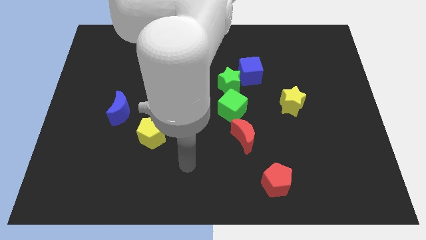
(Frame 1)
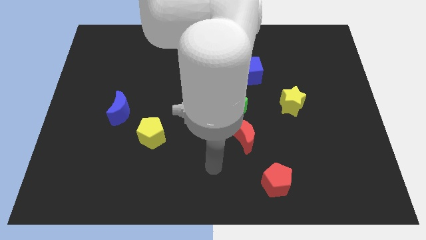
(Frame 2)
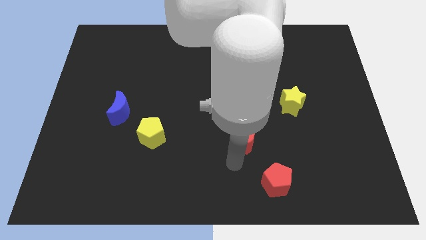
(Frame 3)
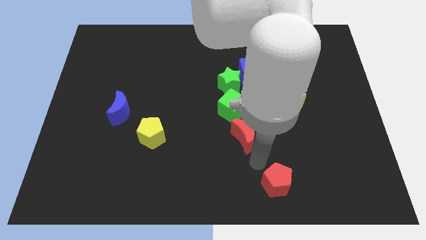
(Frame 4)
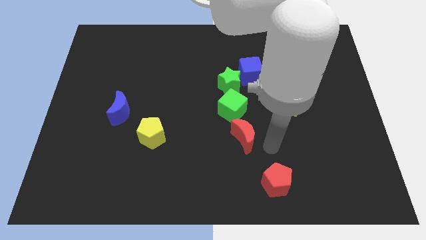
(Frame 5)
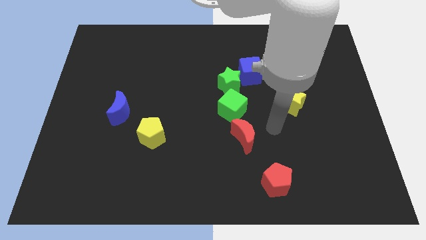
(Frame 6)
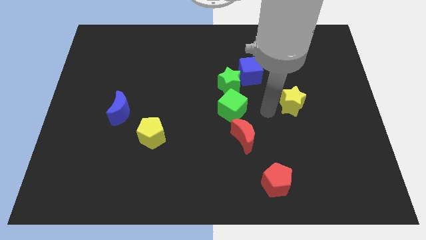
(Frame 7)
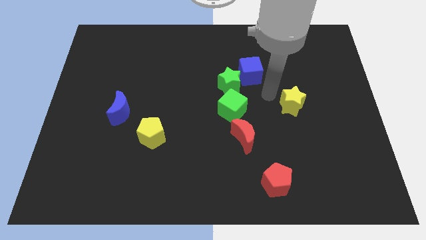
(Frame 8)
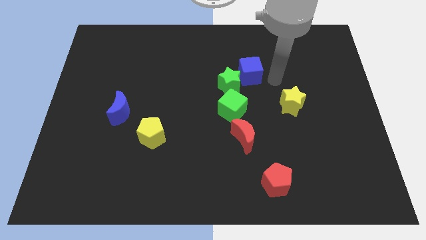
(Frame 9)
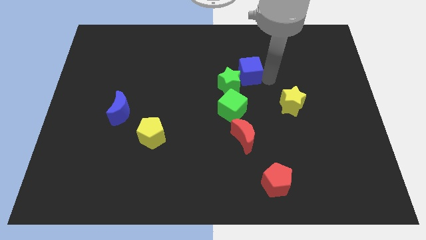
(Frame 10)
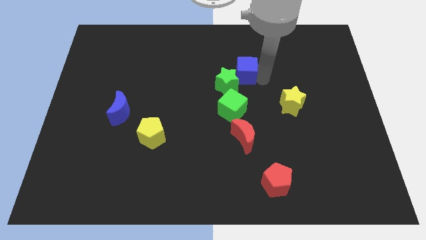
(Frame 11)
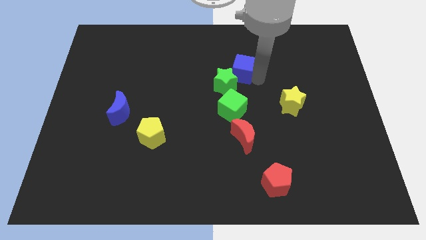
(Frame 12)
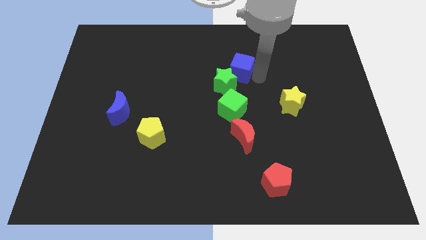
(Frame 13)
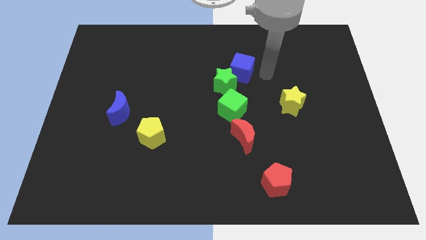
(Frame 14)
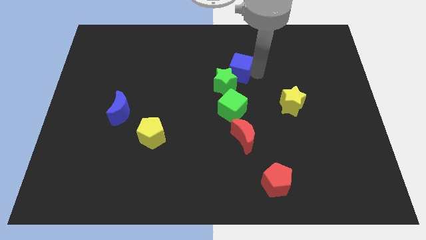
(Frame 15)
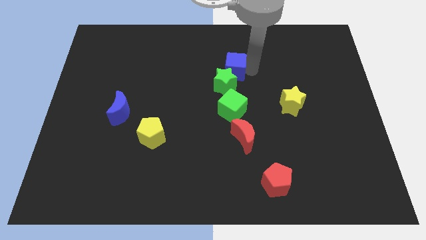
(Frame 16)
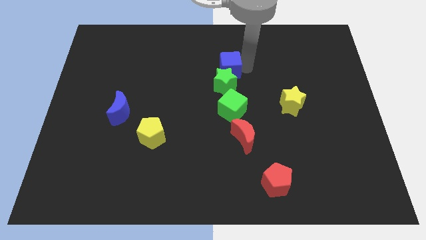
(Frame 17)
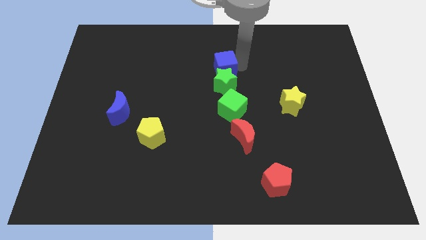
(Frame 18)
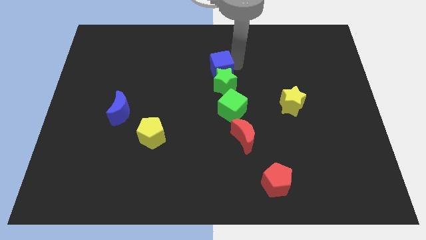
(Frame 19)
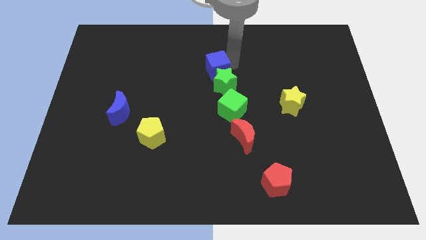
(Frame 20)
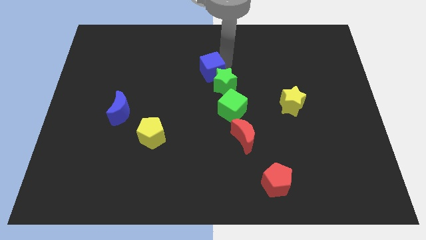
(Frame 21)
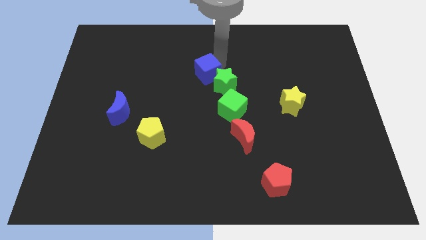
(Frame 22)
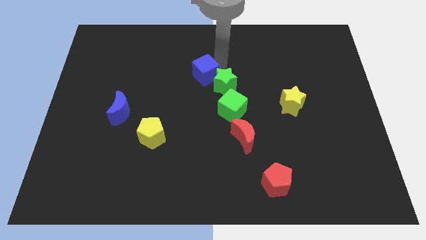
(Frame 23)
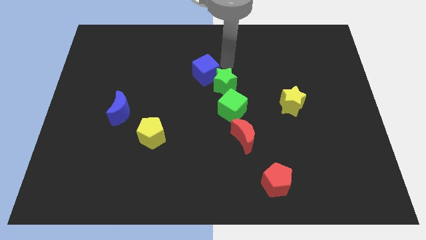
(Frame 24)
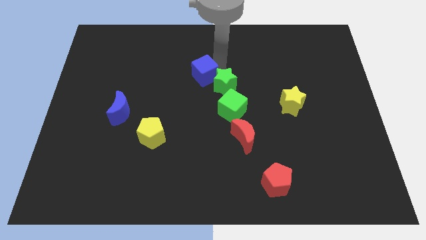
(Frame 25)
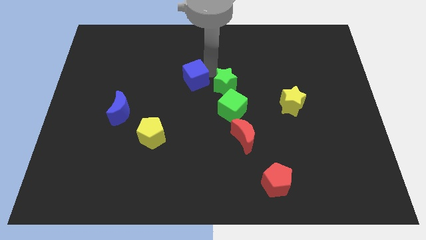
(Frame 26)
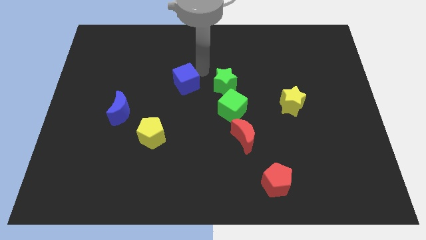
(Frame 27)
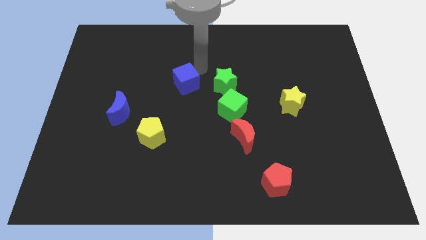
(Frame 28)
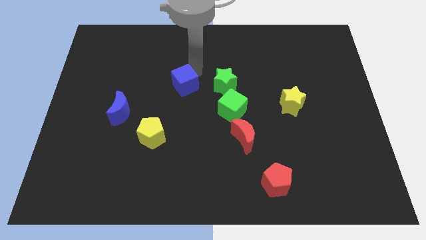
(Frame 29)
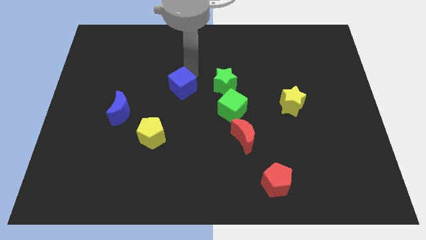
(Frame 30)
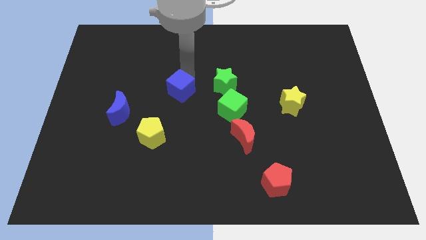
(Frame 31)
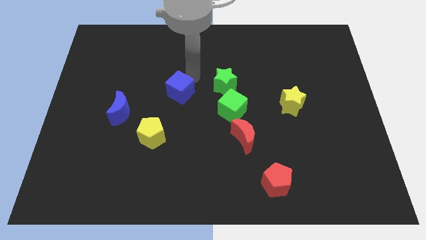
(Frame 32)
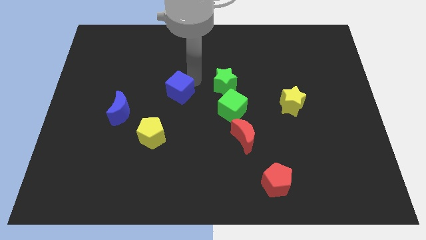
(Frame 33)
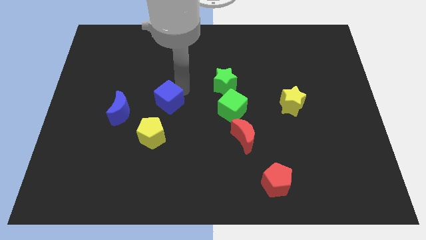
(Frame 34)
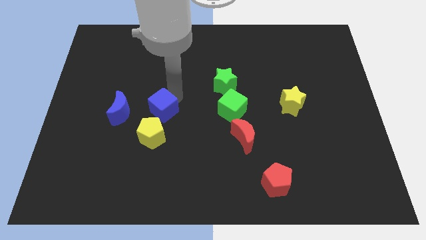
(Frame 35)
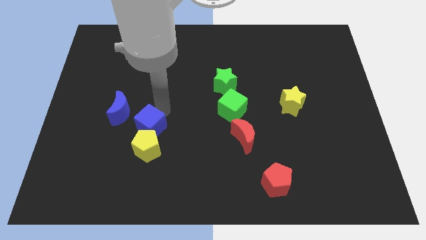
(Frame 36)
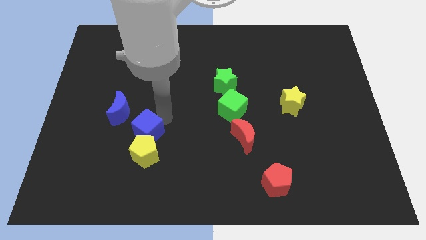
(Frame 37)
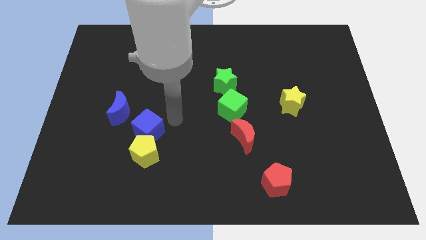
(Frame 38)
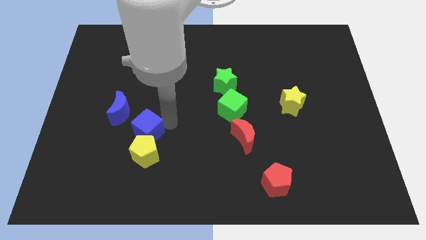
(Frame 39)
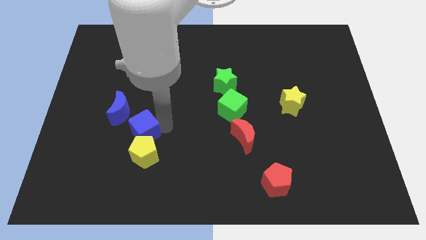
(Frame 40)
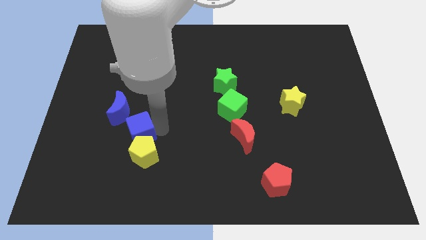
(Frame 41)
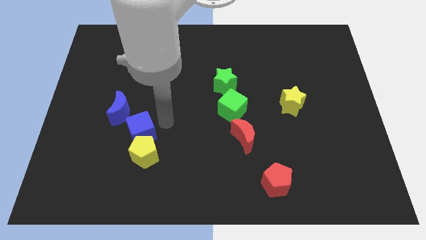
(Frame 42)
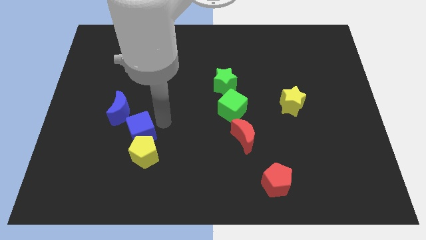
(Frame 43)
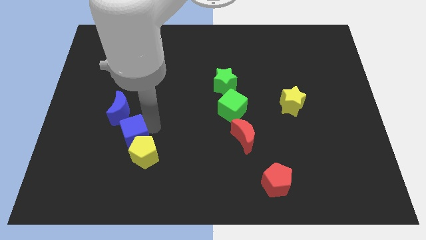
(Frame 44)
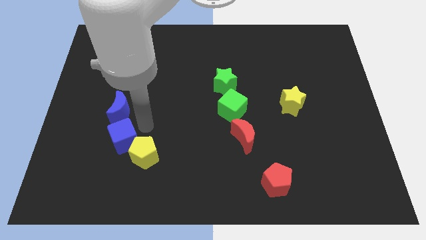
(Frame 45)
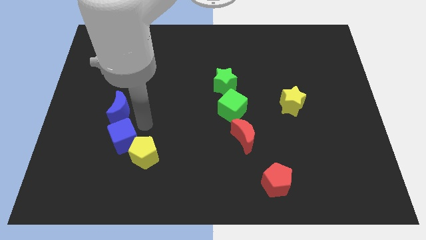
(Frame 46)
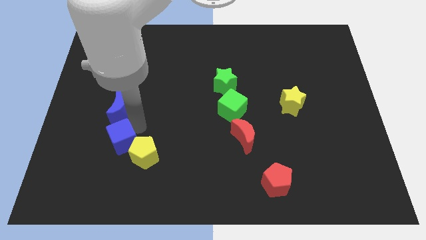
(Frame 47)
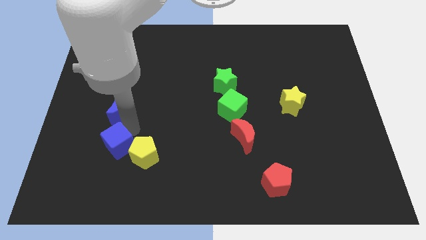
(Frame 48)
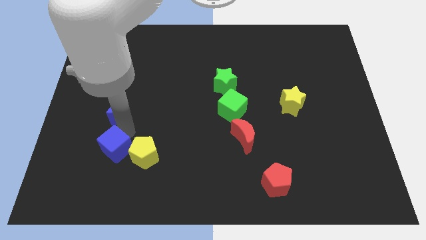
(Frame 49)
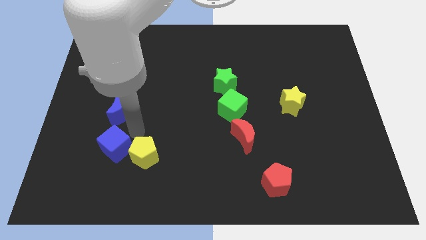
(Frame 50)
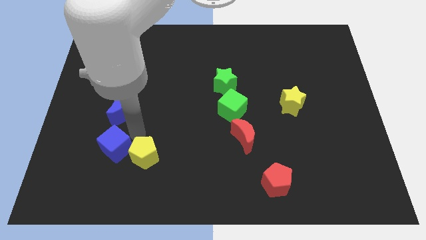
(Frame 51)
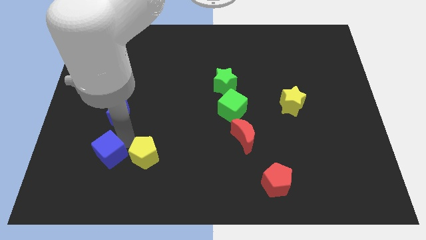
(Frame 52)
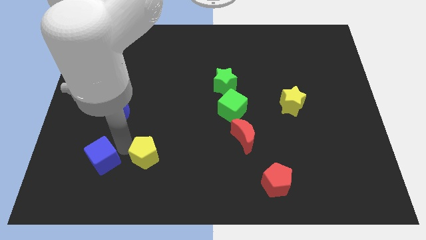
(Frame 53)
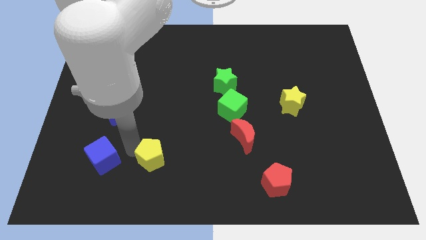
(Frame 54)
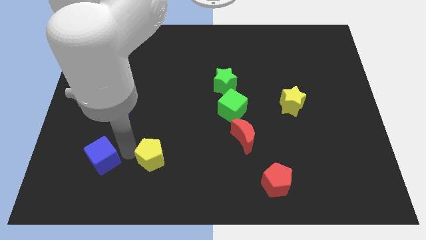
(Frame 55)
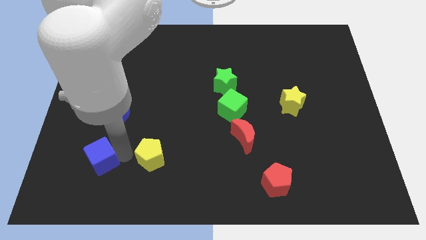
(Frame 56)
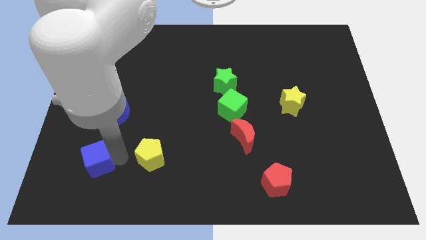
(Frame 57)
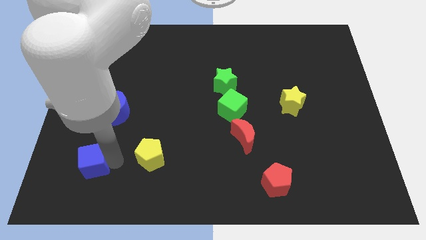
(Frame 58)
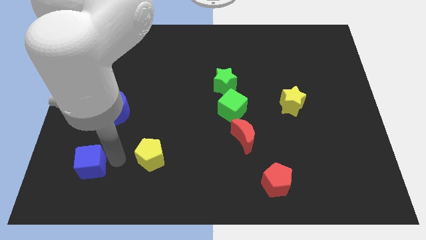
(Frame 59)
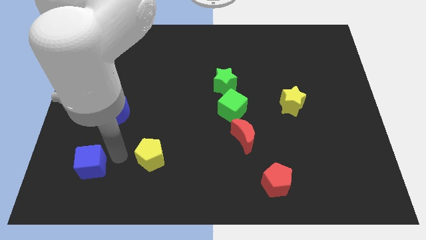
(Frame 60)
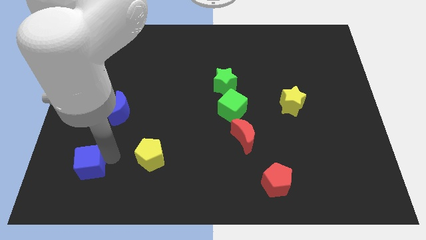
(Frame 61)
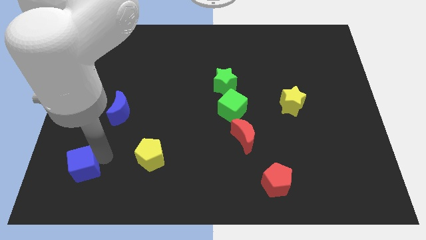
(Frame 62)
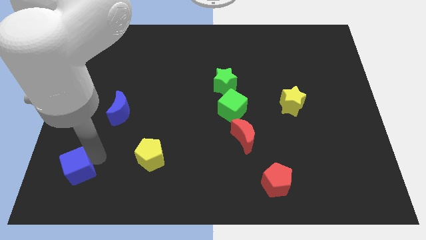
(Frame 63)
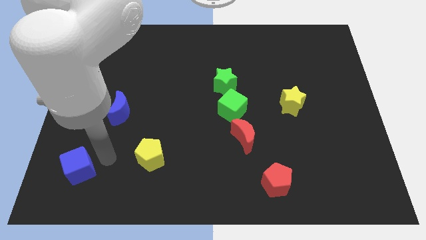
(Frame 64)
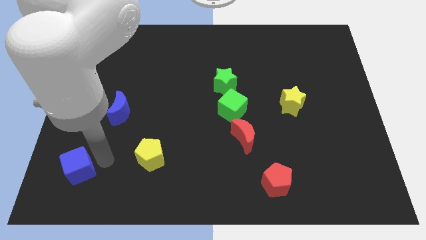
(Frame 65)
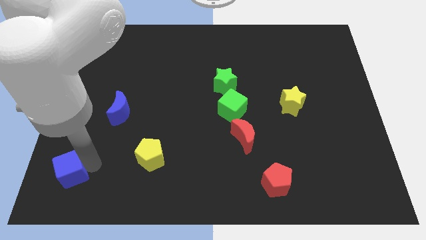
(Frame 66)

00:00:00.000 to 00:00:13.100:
slide the blue cube to the bottom left
